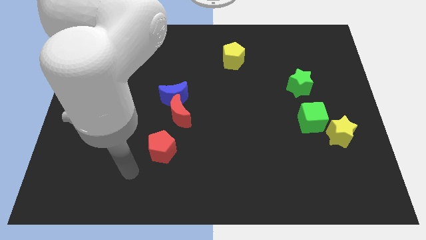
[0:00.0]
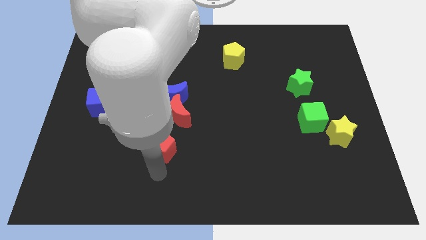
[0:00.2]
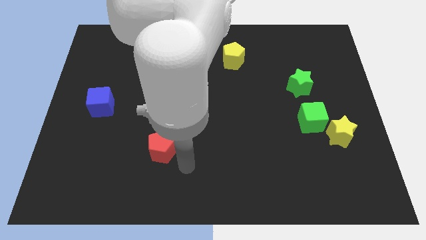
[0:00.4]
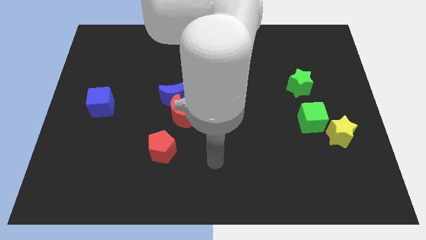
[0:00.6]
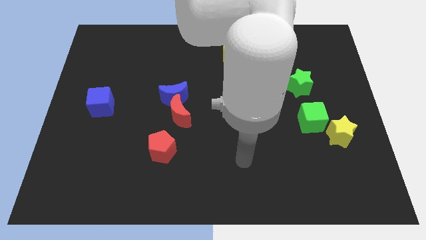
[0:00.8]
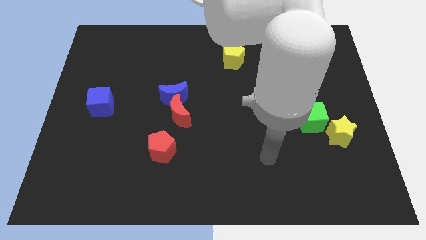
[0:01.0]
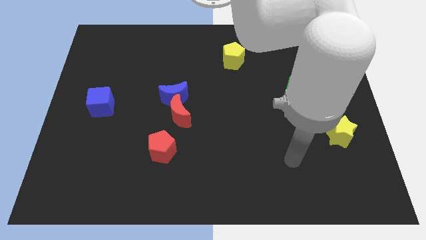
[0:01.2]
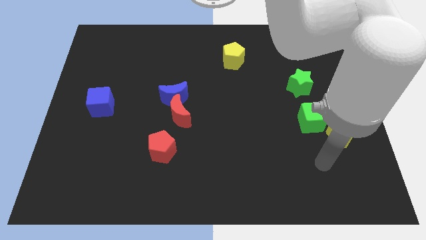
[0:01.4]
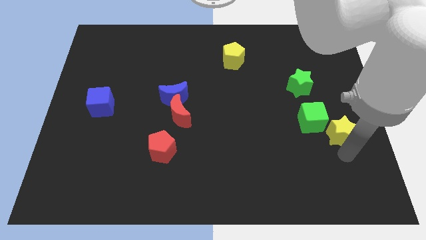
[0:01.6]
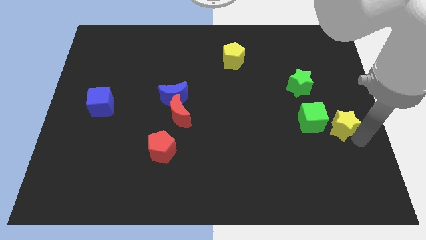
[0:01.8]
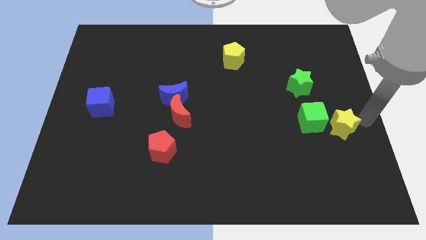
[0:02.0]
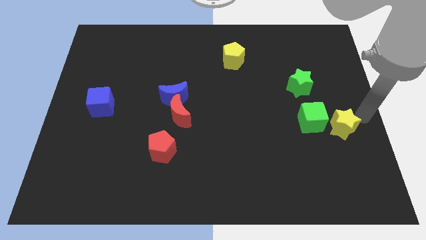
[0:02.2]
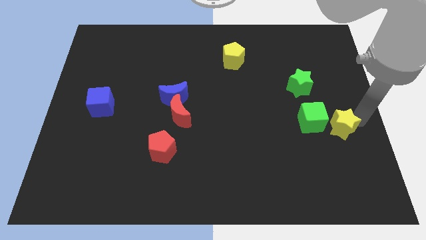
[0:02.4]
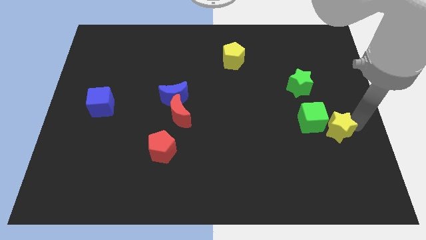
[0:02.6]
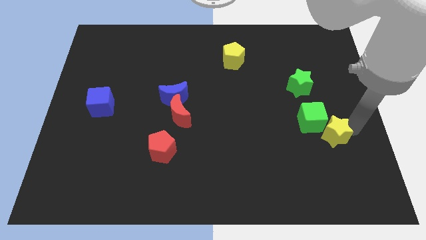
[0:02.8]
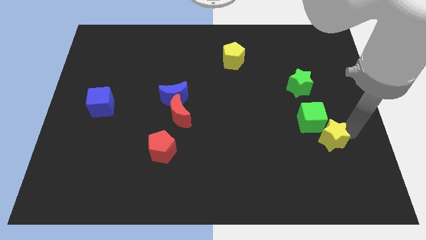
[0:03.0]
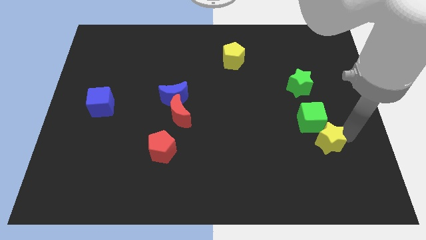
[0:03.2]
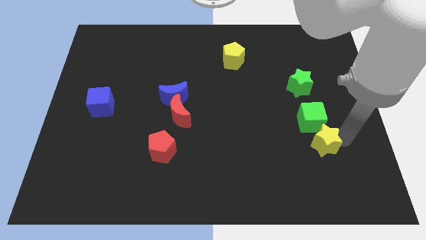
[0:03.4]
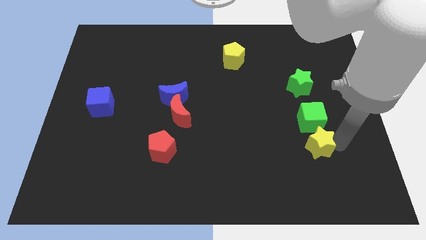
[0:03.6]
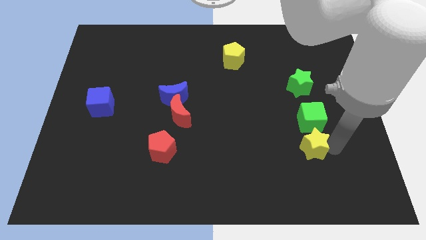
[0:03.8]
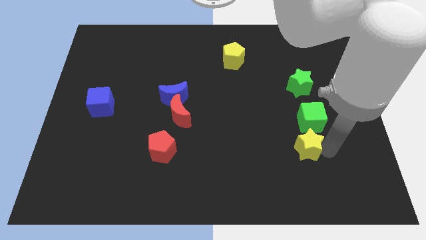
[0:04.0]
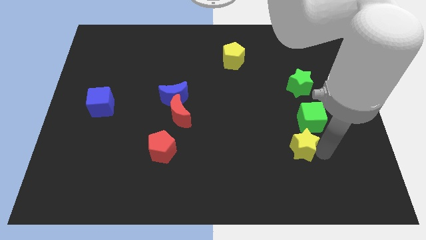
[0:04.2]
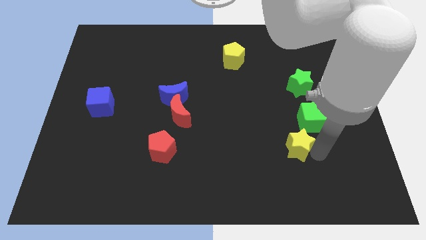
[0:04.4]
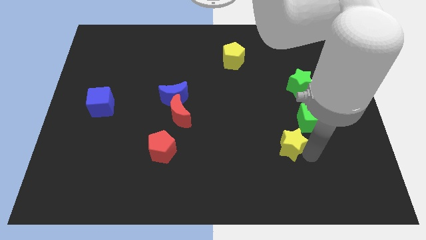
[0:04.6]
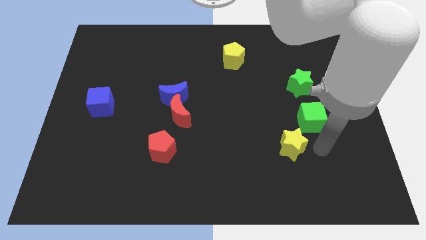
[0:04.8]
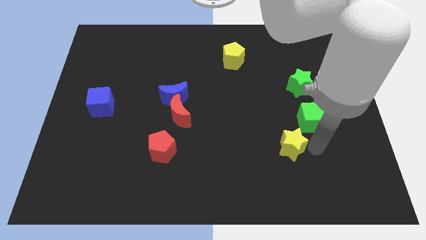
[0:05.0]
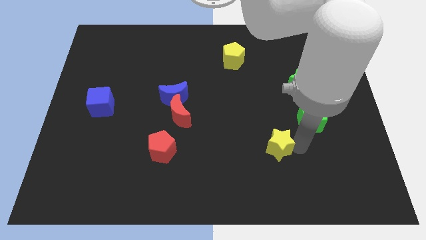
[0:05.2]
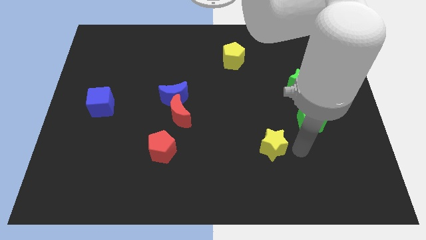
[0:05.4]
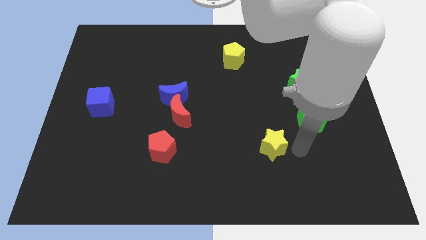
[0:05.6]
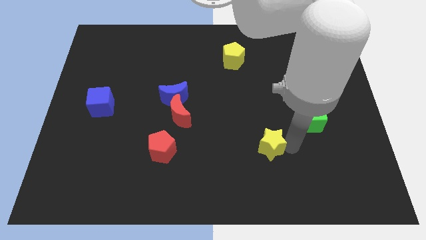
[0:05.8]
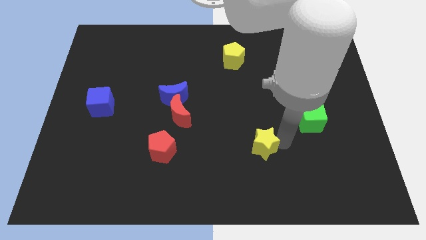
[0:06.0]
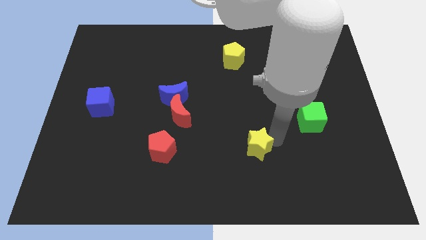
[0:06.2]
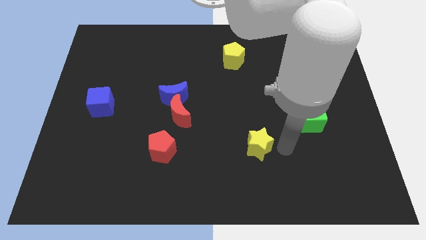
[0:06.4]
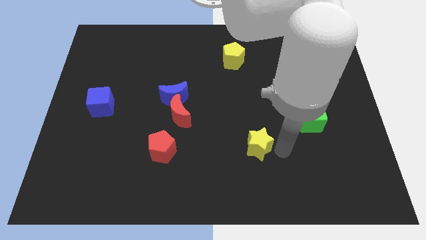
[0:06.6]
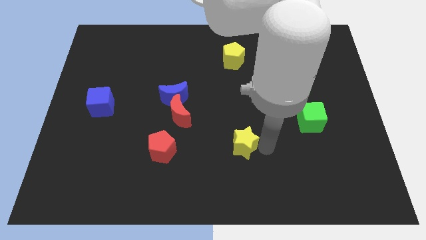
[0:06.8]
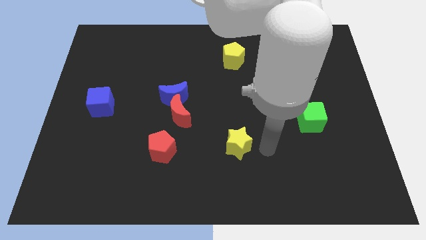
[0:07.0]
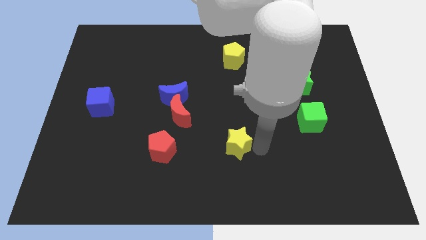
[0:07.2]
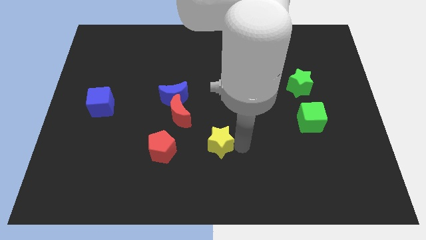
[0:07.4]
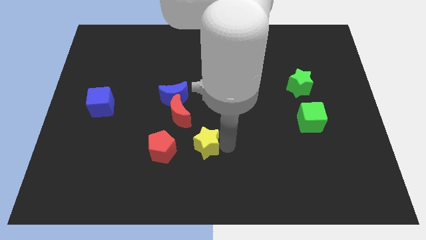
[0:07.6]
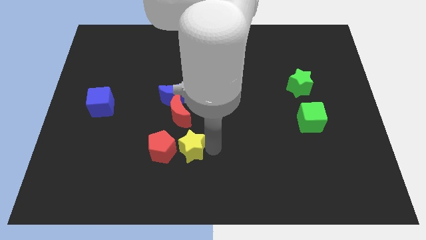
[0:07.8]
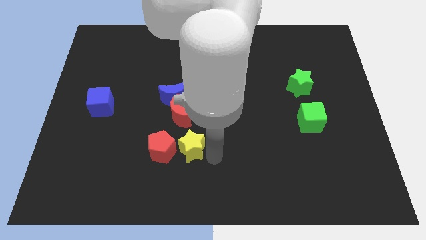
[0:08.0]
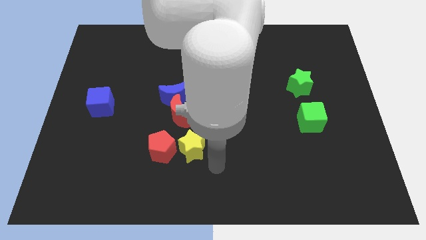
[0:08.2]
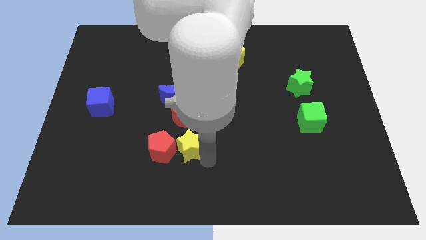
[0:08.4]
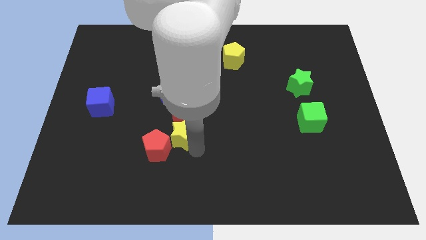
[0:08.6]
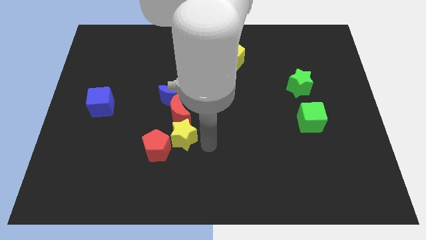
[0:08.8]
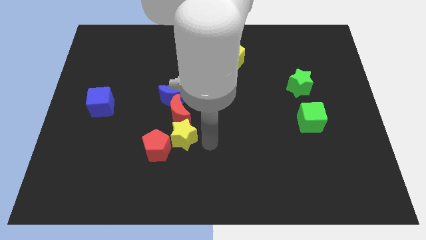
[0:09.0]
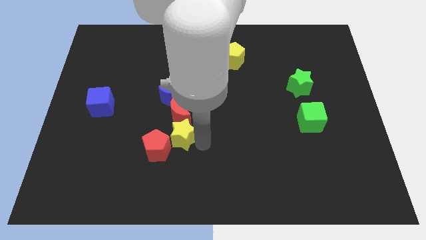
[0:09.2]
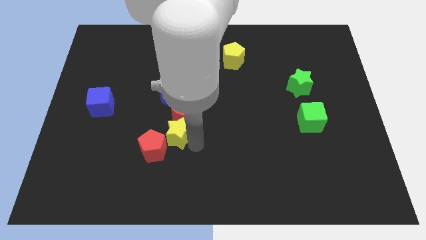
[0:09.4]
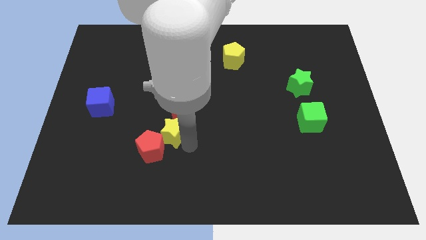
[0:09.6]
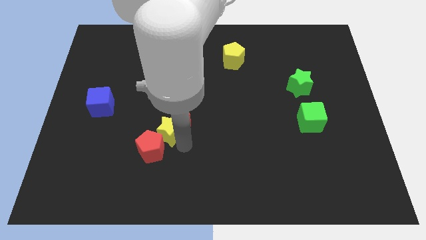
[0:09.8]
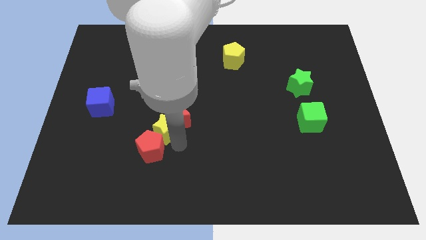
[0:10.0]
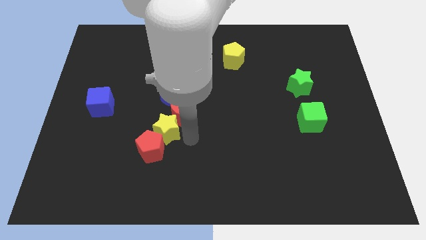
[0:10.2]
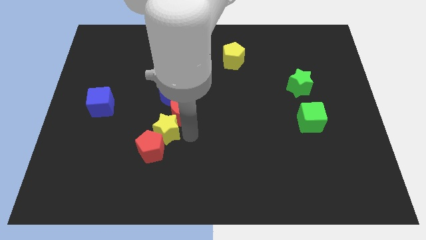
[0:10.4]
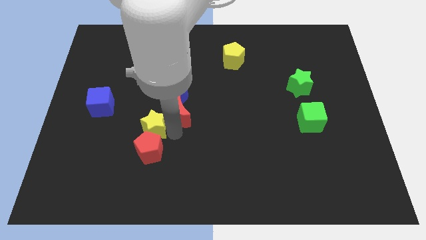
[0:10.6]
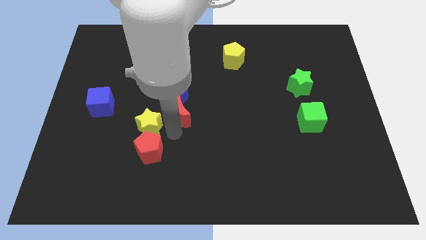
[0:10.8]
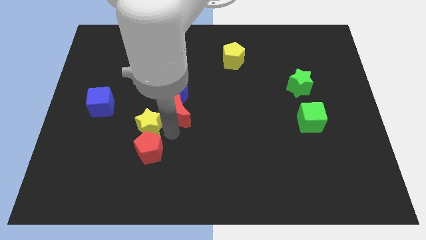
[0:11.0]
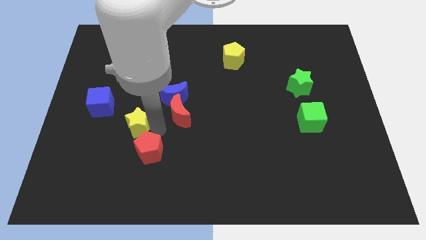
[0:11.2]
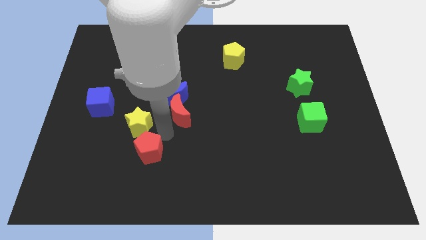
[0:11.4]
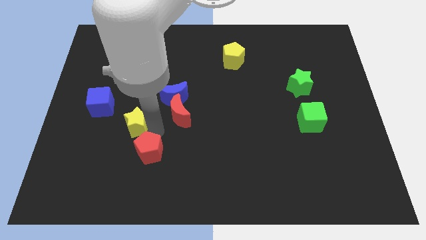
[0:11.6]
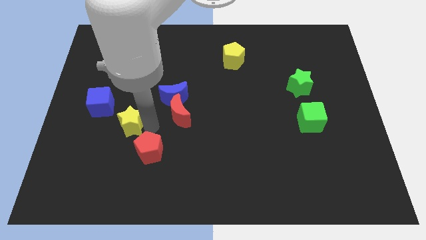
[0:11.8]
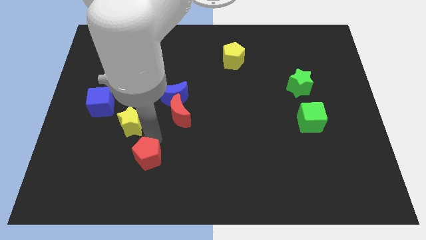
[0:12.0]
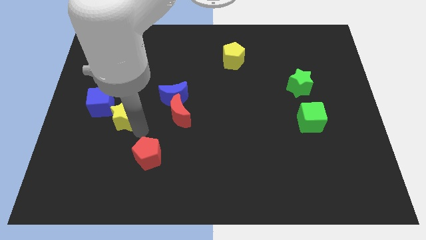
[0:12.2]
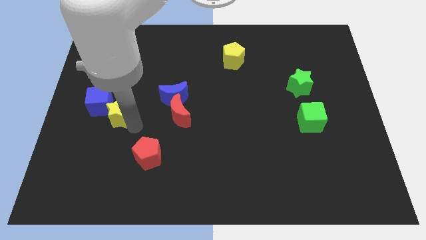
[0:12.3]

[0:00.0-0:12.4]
put the yellow star towards the blue cube
